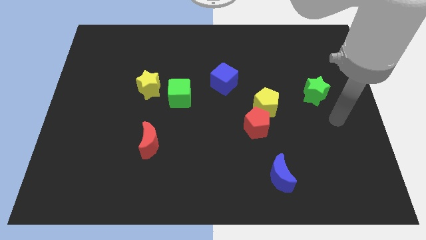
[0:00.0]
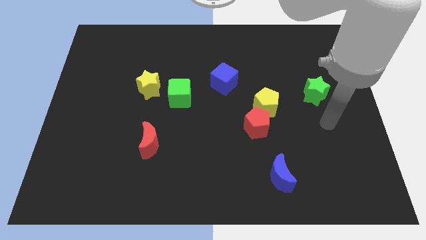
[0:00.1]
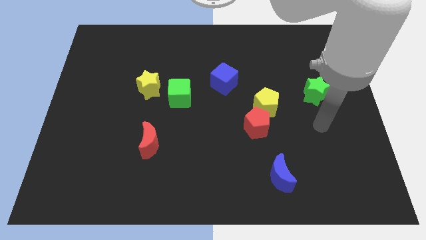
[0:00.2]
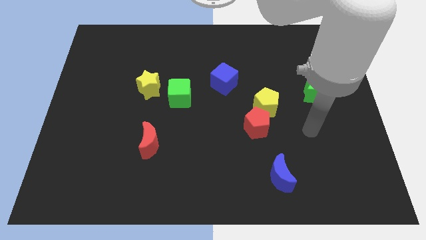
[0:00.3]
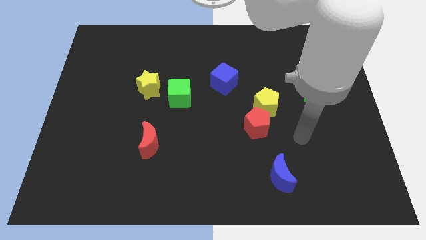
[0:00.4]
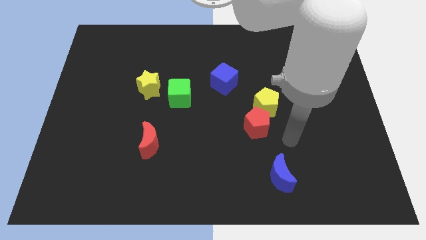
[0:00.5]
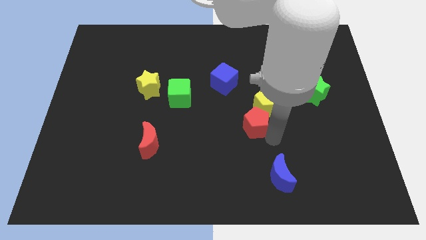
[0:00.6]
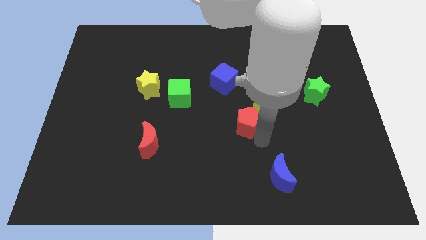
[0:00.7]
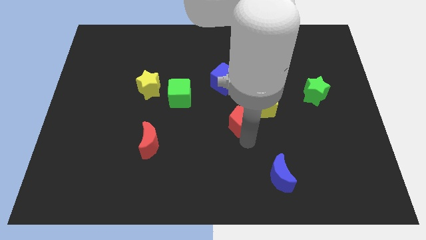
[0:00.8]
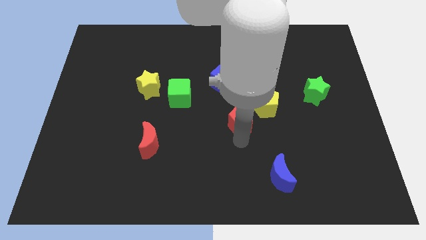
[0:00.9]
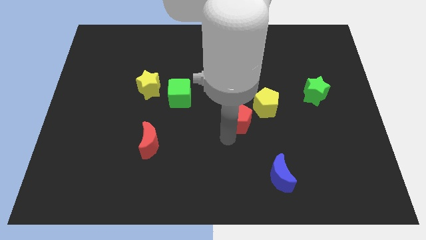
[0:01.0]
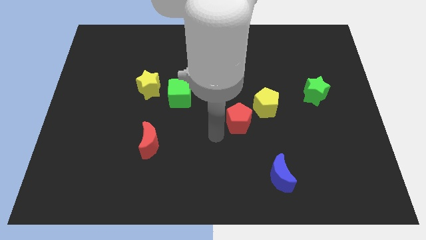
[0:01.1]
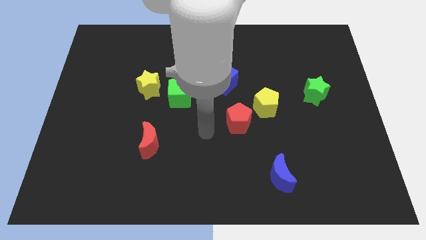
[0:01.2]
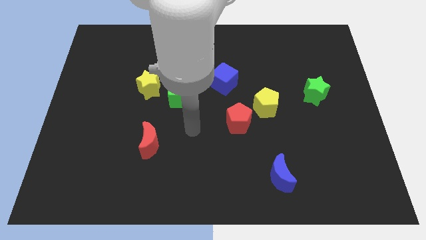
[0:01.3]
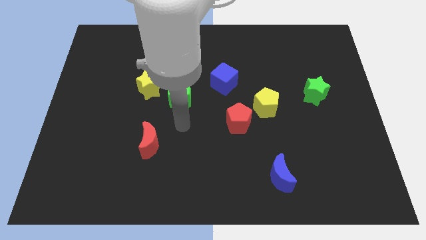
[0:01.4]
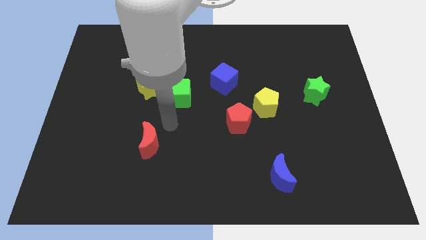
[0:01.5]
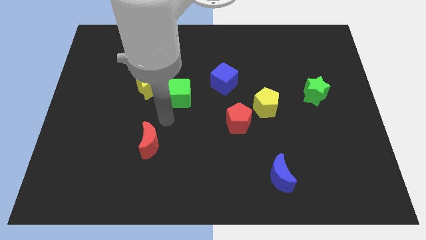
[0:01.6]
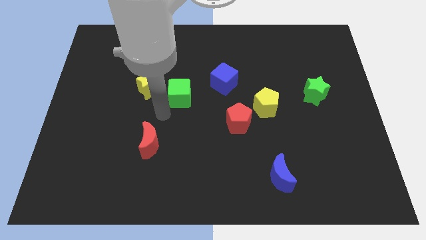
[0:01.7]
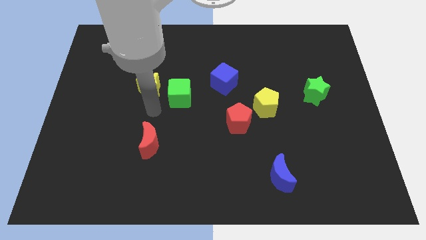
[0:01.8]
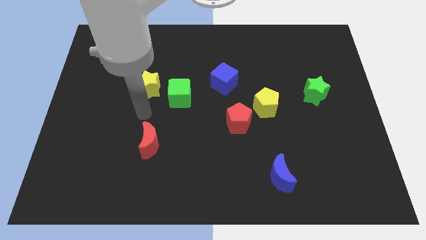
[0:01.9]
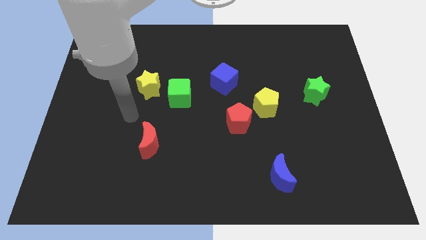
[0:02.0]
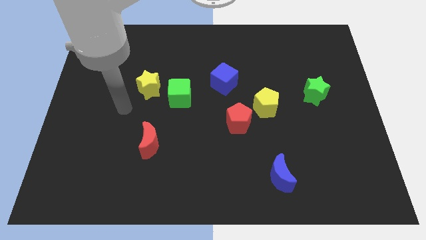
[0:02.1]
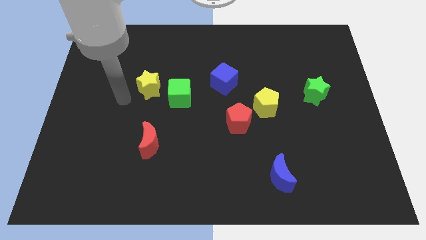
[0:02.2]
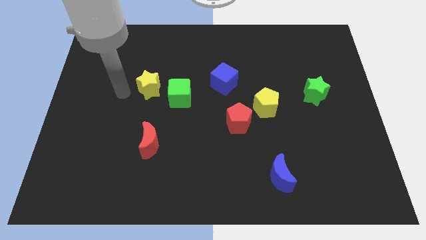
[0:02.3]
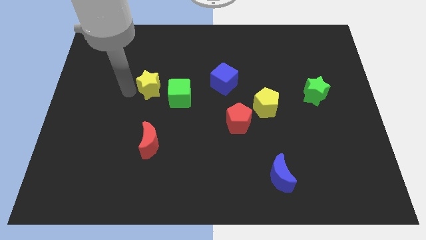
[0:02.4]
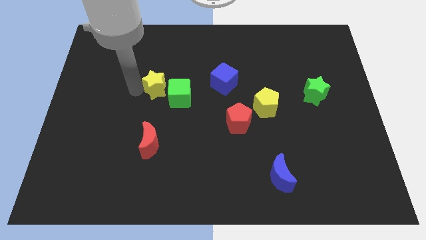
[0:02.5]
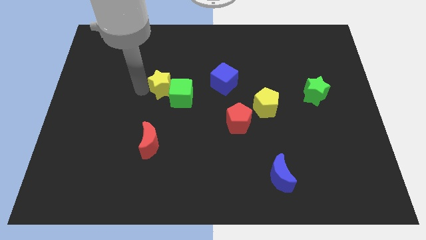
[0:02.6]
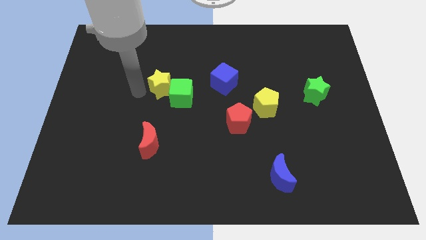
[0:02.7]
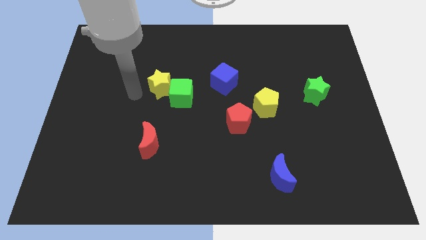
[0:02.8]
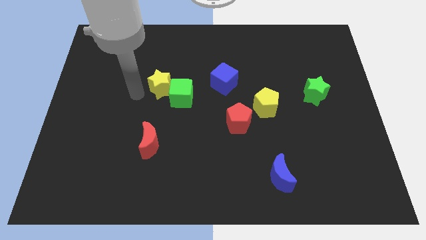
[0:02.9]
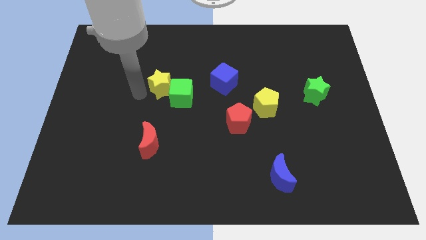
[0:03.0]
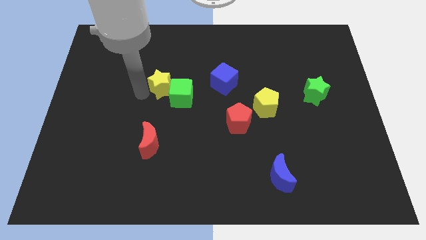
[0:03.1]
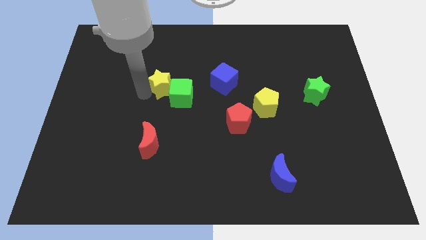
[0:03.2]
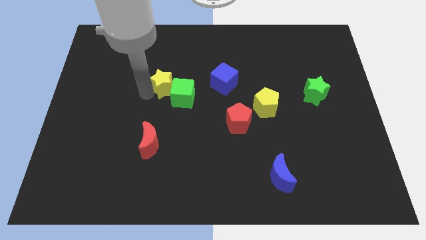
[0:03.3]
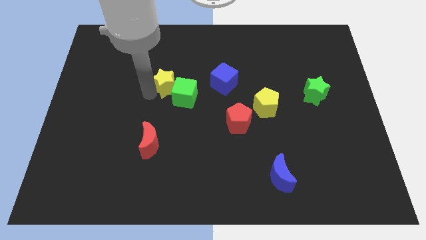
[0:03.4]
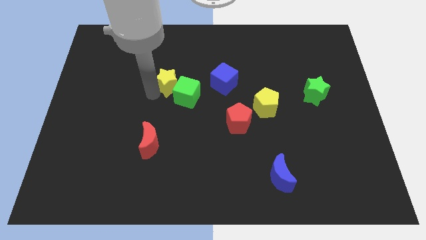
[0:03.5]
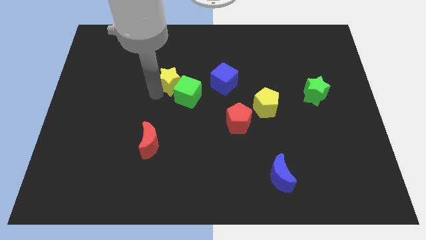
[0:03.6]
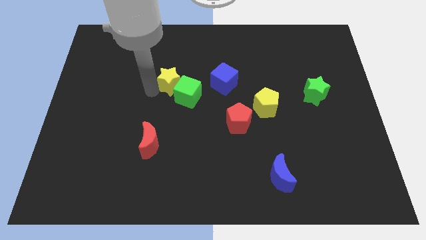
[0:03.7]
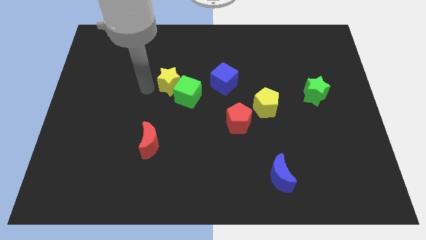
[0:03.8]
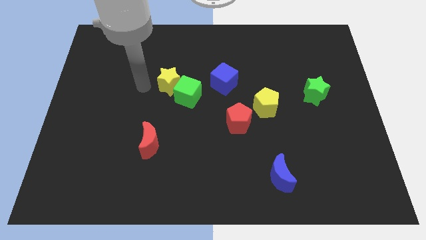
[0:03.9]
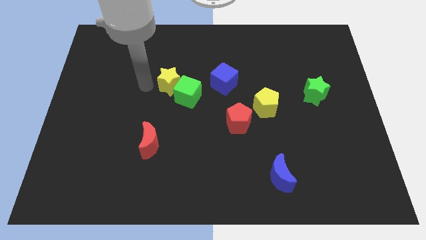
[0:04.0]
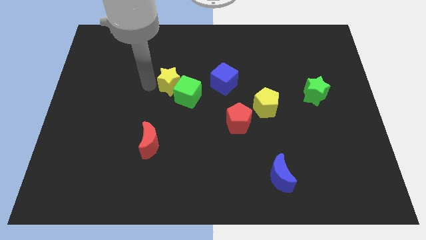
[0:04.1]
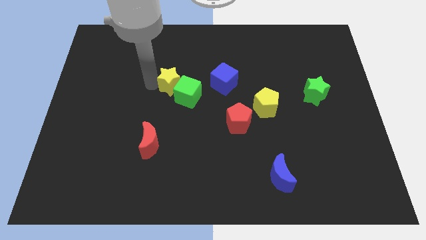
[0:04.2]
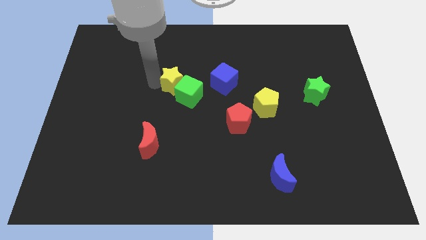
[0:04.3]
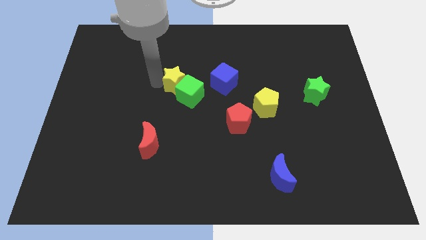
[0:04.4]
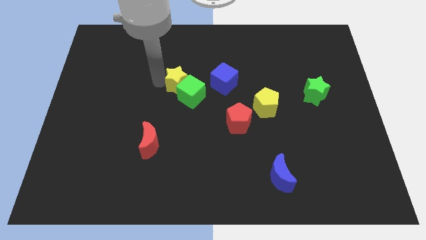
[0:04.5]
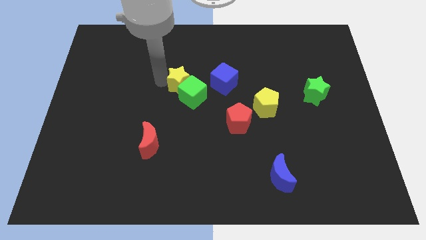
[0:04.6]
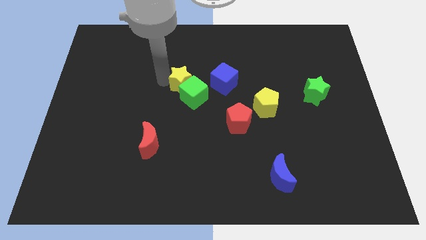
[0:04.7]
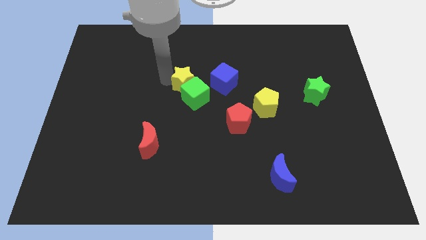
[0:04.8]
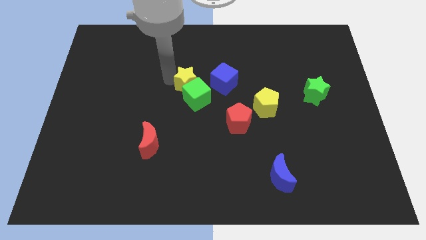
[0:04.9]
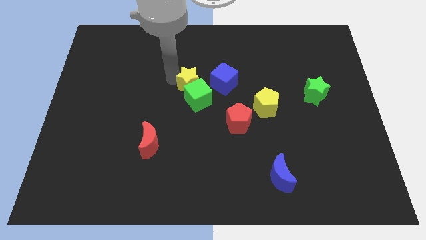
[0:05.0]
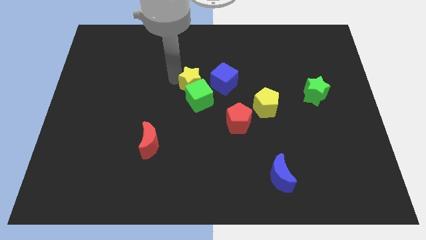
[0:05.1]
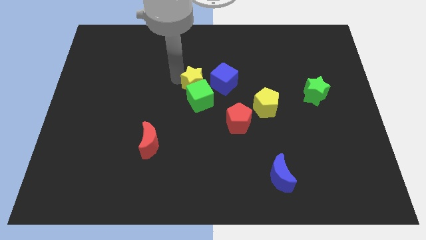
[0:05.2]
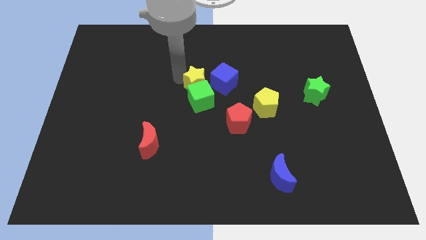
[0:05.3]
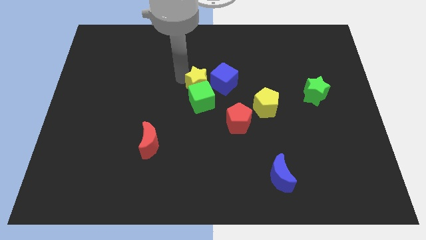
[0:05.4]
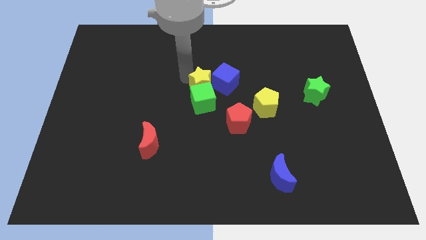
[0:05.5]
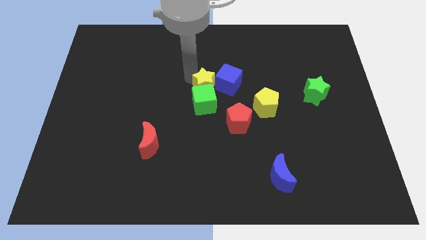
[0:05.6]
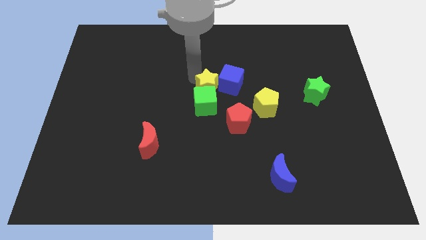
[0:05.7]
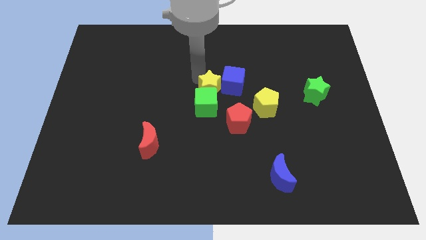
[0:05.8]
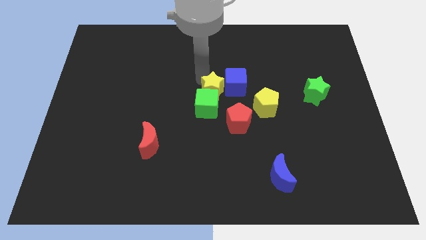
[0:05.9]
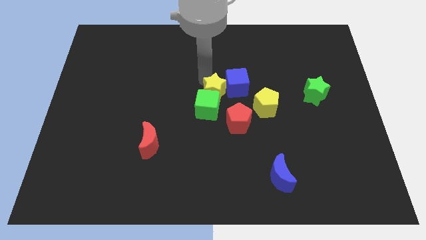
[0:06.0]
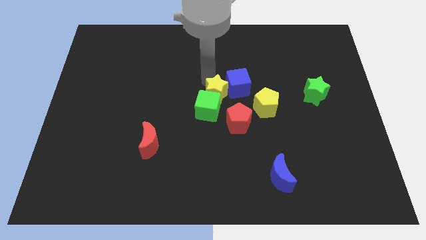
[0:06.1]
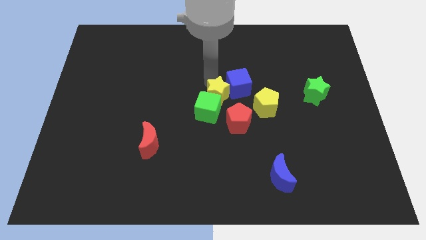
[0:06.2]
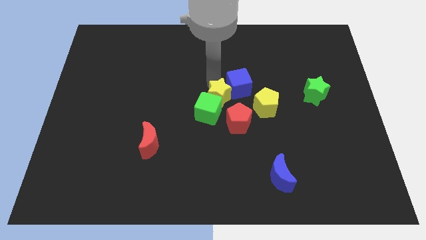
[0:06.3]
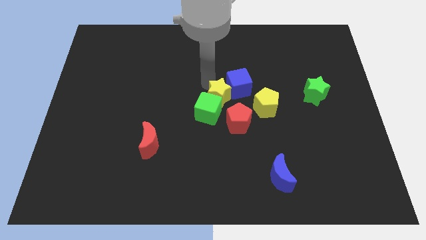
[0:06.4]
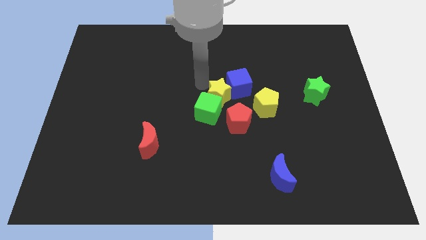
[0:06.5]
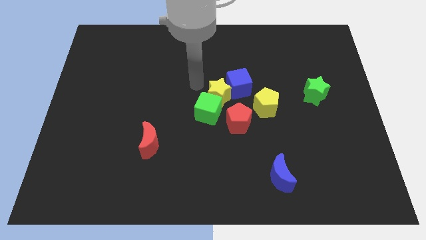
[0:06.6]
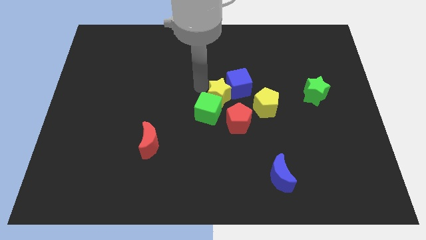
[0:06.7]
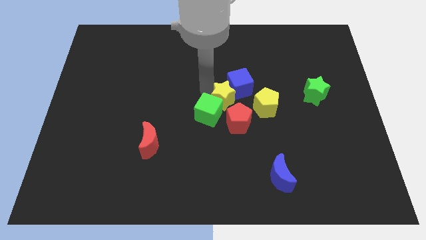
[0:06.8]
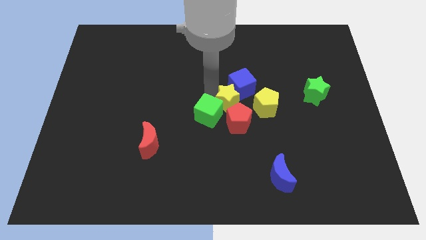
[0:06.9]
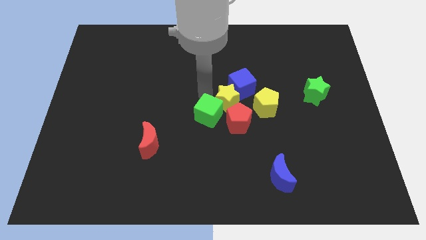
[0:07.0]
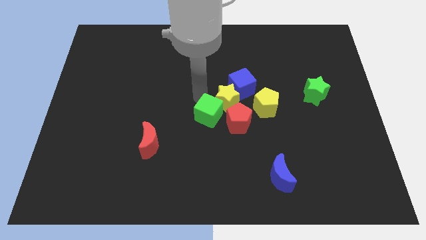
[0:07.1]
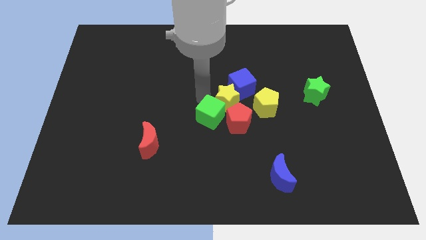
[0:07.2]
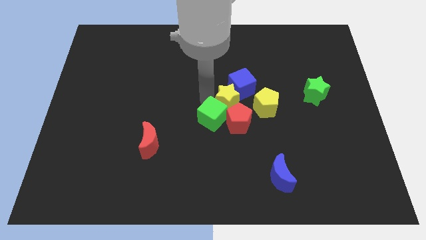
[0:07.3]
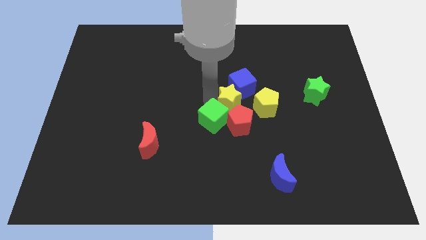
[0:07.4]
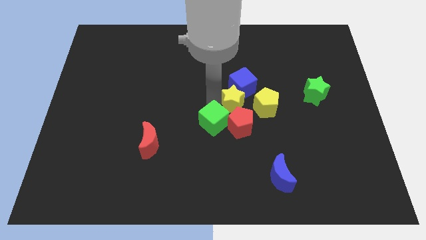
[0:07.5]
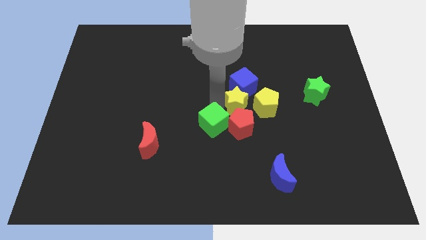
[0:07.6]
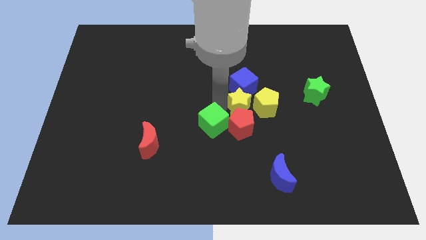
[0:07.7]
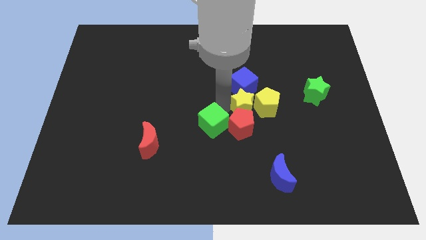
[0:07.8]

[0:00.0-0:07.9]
put the yellow star next to the yellow pentagon
